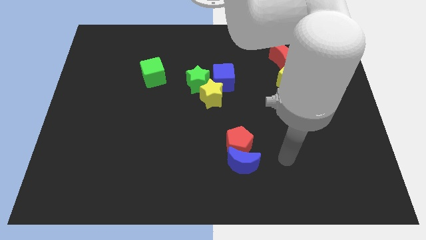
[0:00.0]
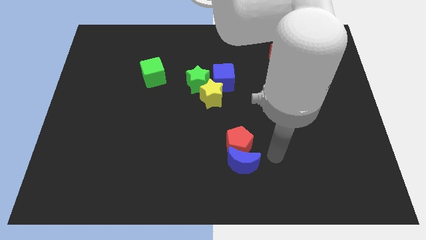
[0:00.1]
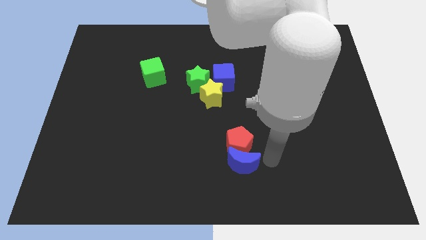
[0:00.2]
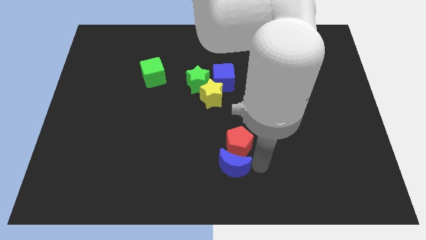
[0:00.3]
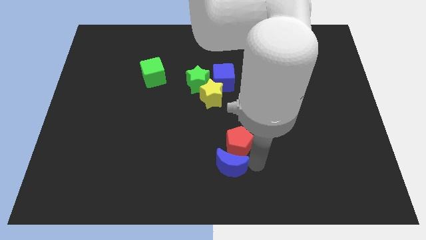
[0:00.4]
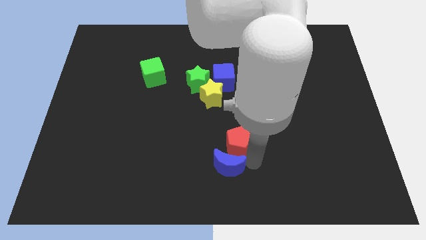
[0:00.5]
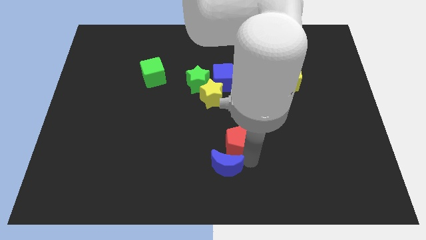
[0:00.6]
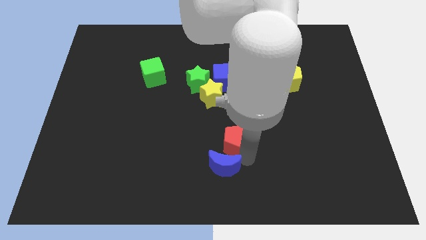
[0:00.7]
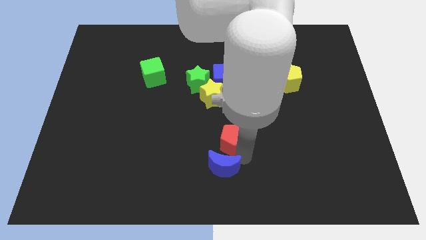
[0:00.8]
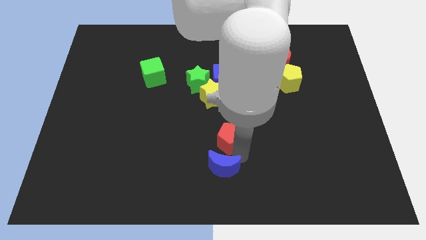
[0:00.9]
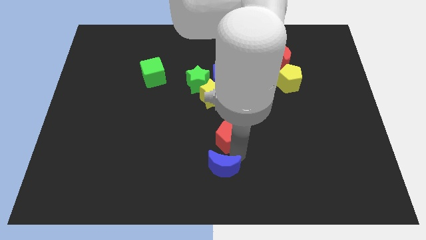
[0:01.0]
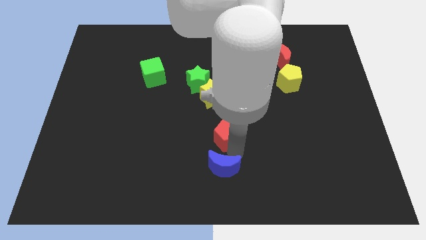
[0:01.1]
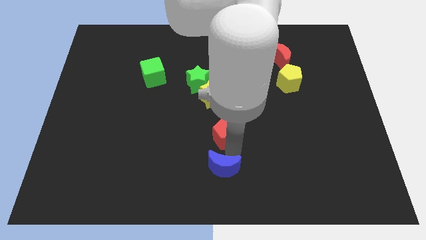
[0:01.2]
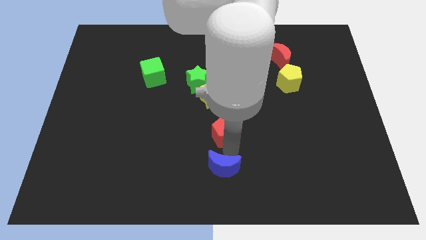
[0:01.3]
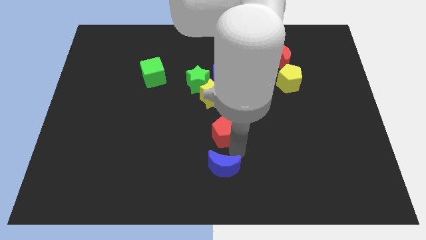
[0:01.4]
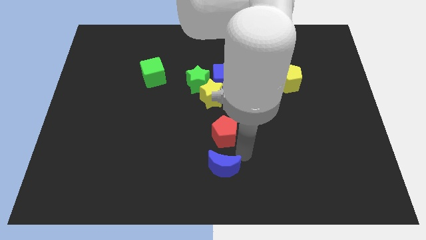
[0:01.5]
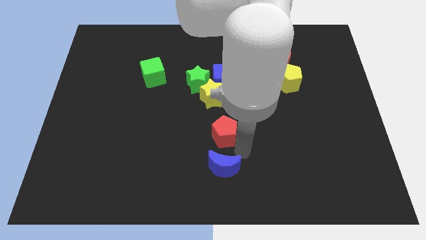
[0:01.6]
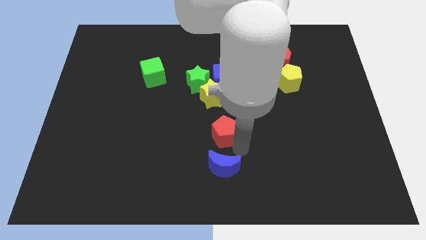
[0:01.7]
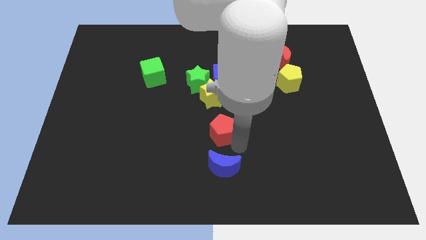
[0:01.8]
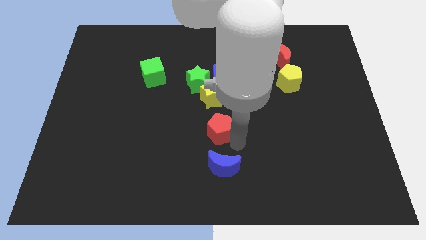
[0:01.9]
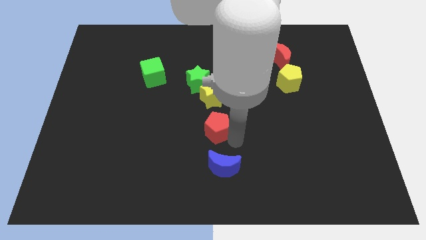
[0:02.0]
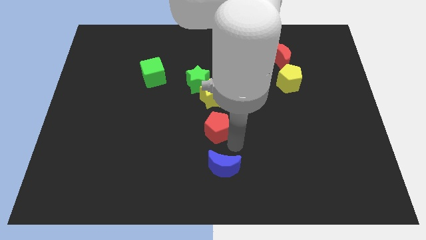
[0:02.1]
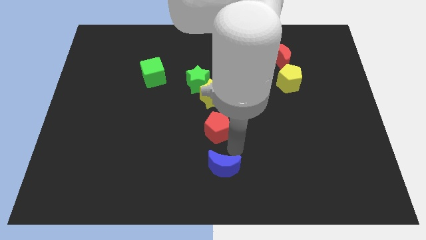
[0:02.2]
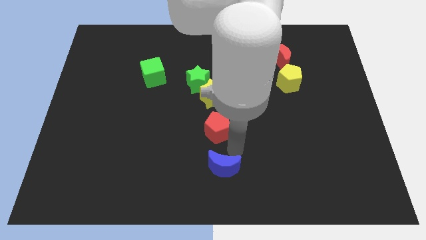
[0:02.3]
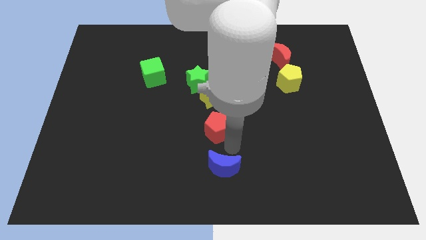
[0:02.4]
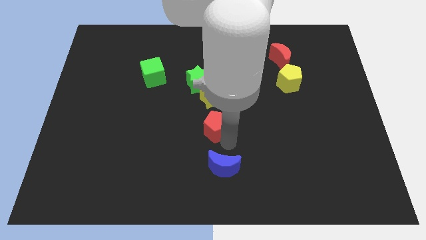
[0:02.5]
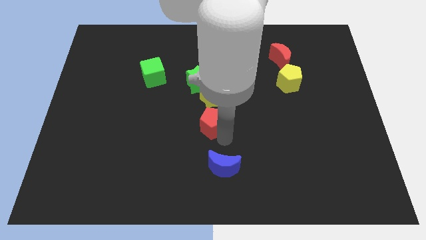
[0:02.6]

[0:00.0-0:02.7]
slightly slide the red pentagon diagonally upwards and to the left

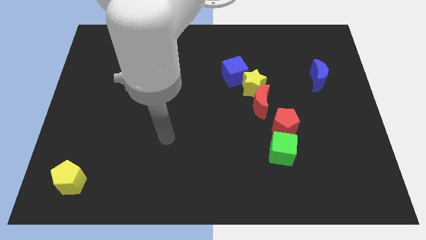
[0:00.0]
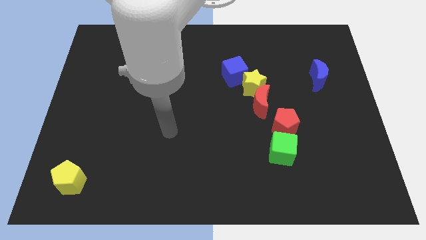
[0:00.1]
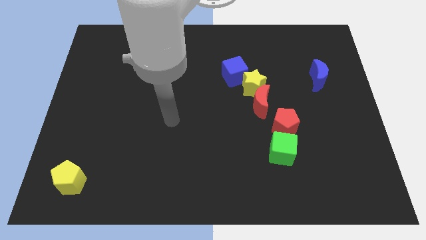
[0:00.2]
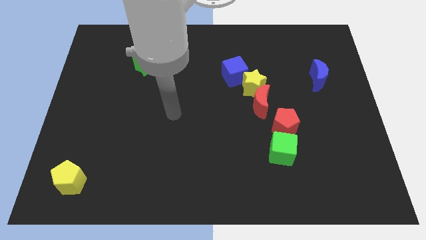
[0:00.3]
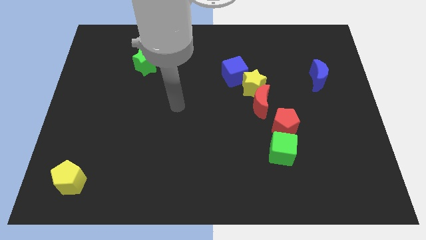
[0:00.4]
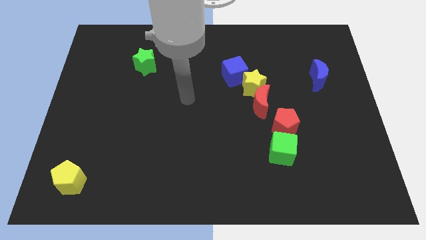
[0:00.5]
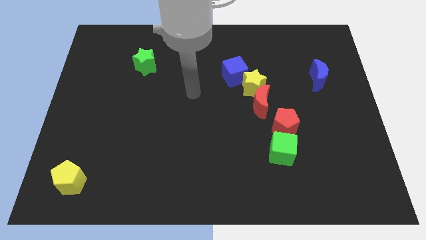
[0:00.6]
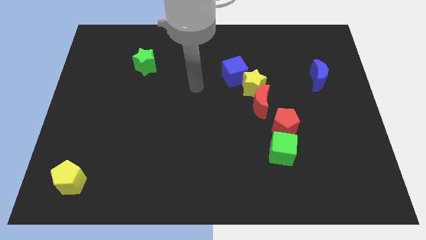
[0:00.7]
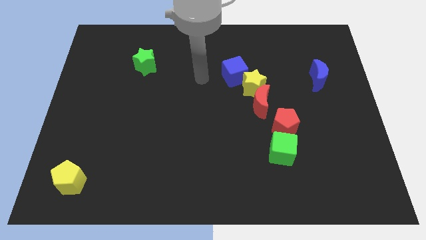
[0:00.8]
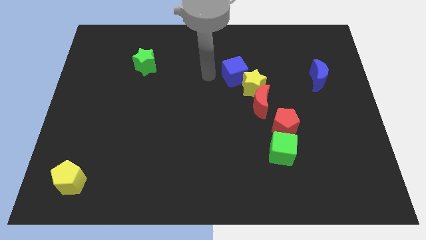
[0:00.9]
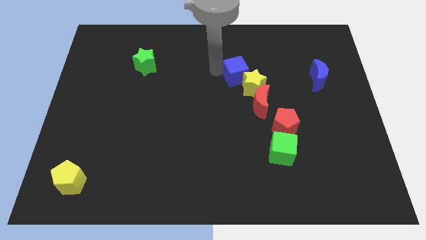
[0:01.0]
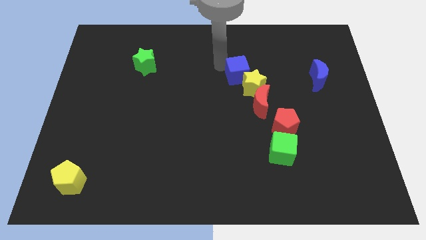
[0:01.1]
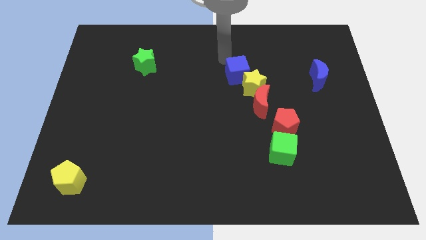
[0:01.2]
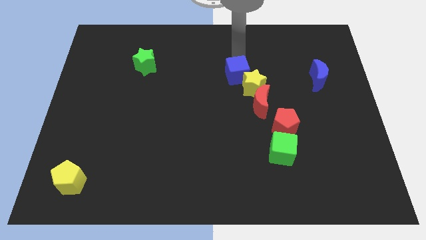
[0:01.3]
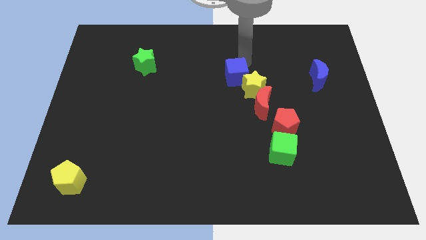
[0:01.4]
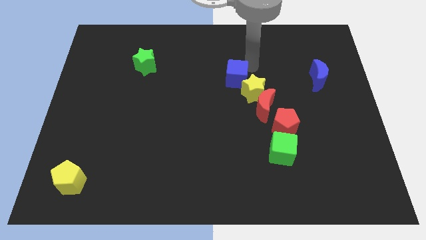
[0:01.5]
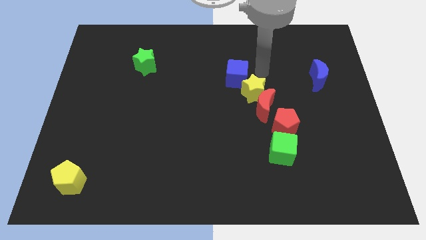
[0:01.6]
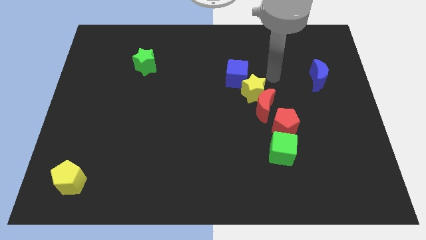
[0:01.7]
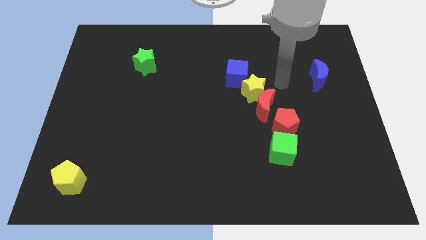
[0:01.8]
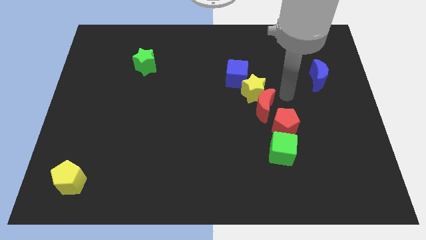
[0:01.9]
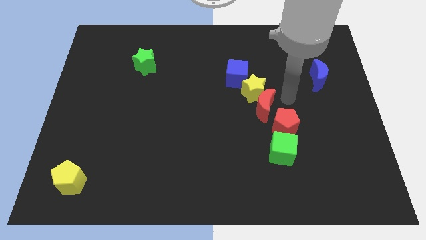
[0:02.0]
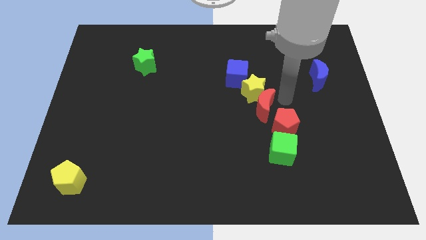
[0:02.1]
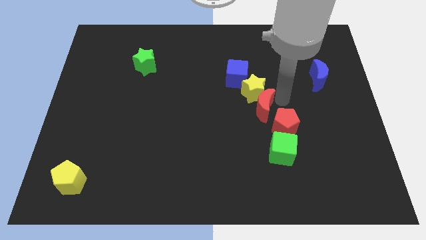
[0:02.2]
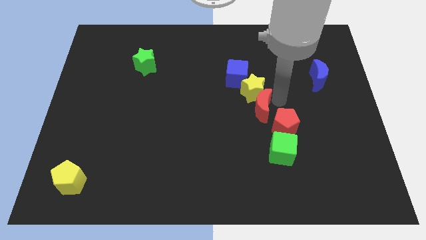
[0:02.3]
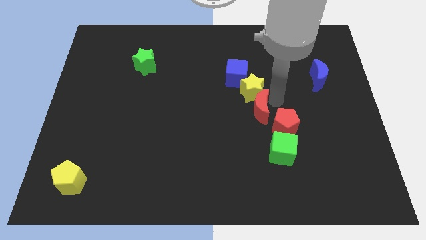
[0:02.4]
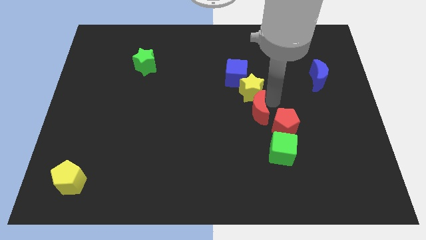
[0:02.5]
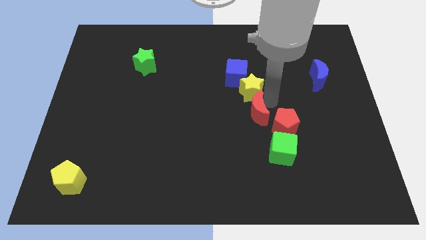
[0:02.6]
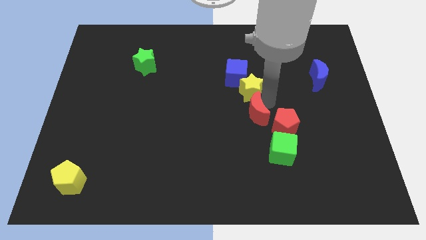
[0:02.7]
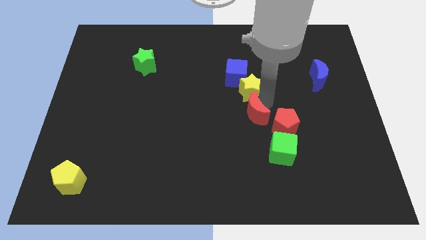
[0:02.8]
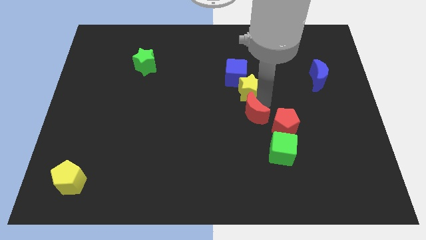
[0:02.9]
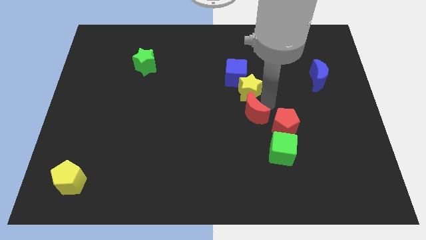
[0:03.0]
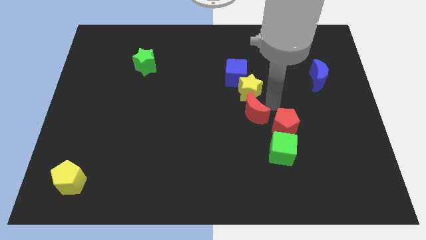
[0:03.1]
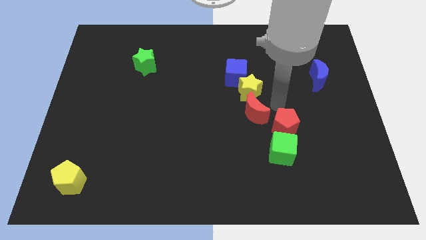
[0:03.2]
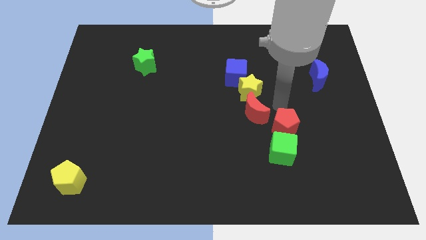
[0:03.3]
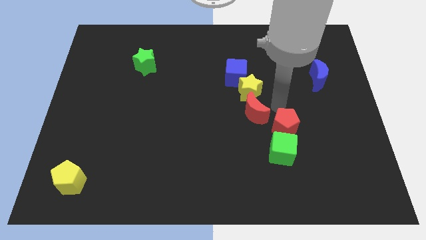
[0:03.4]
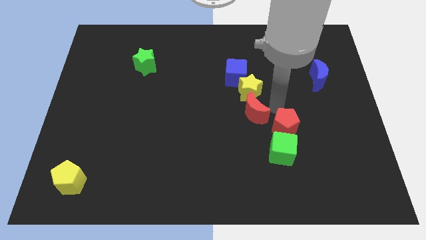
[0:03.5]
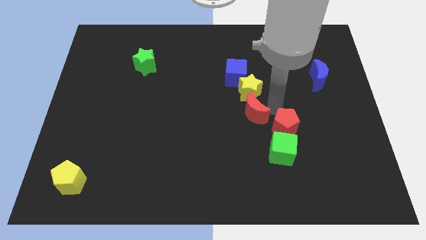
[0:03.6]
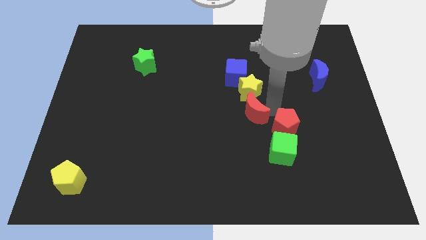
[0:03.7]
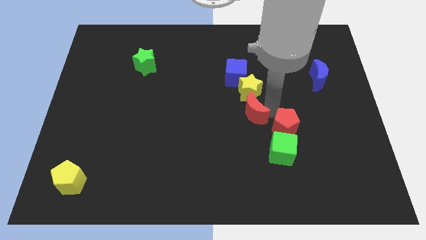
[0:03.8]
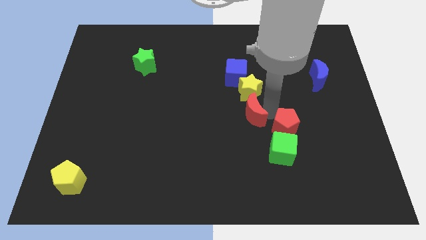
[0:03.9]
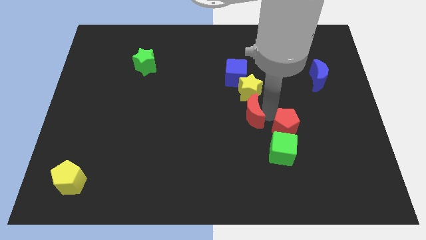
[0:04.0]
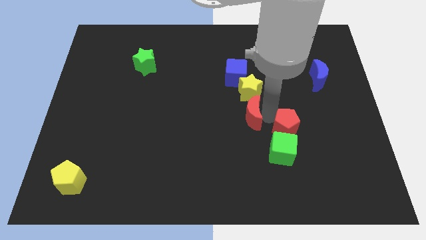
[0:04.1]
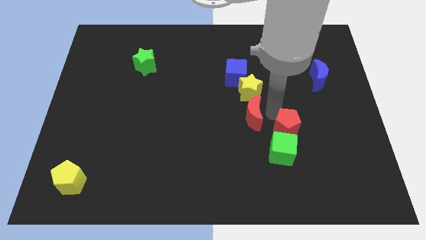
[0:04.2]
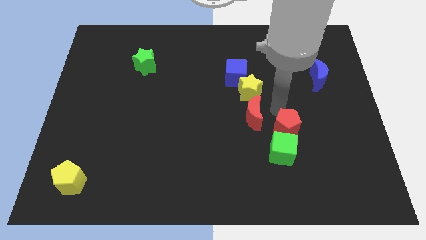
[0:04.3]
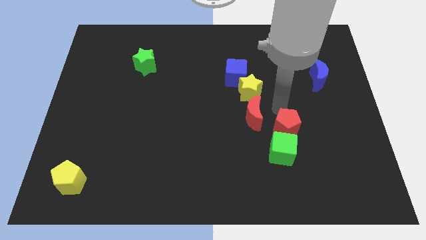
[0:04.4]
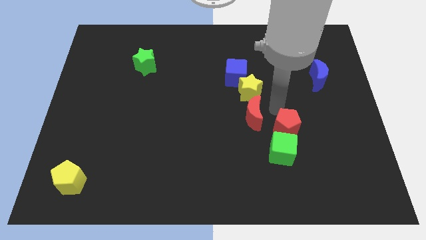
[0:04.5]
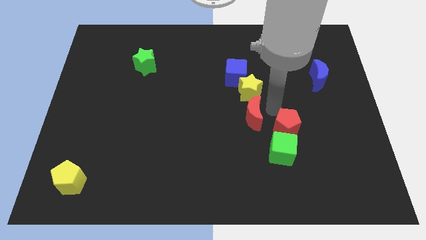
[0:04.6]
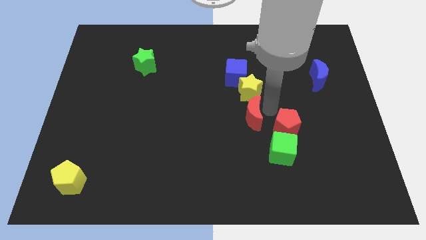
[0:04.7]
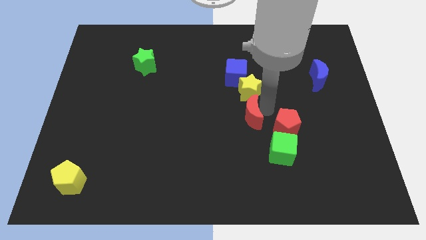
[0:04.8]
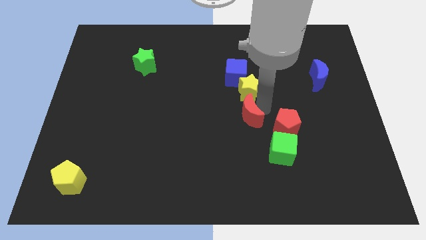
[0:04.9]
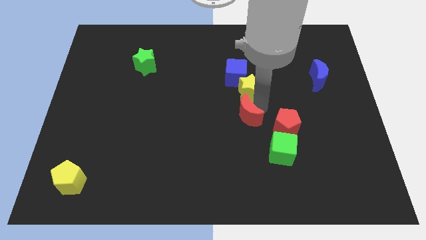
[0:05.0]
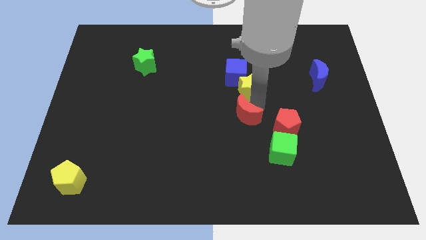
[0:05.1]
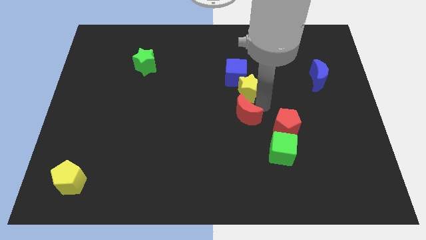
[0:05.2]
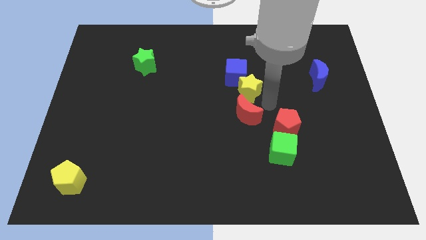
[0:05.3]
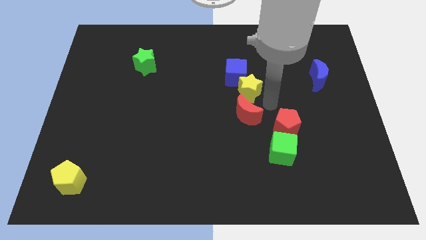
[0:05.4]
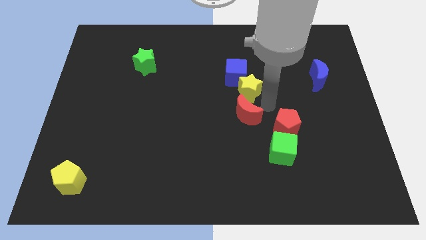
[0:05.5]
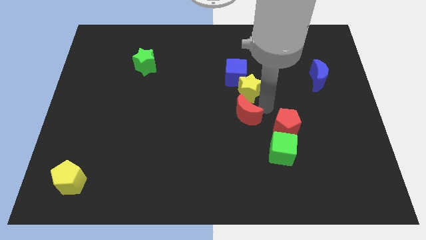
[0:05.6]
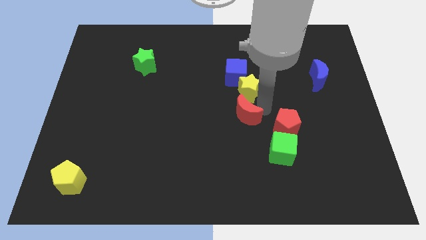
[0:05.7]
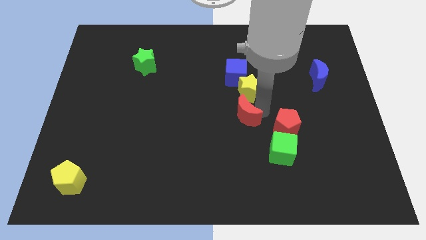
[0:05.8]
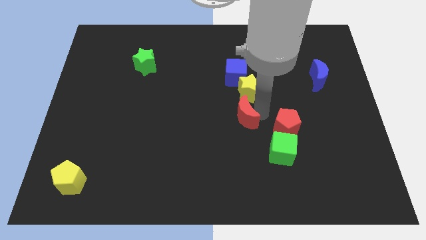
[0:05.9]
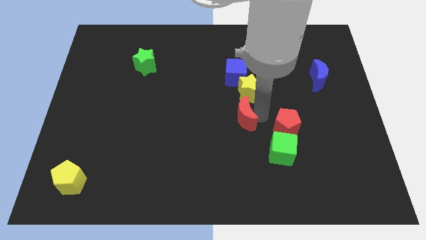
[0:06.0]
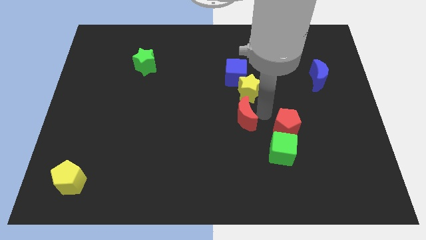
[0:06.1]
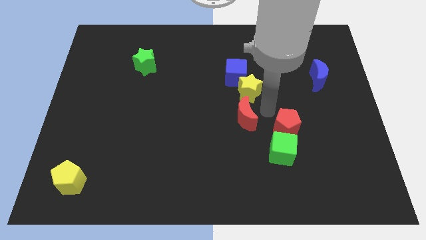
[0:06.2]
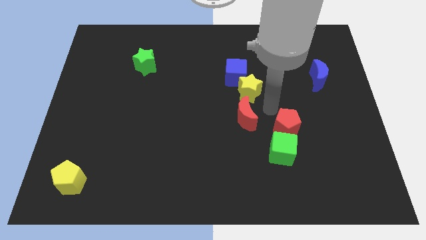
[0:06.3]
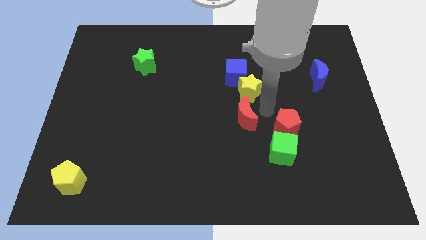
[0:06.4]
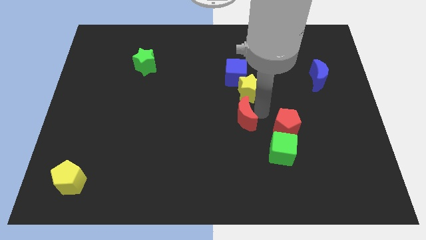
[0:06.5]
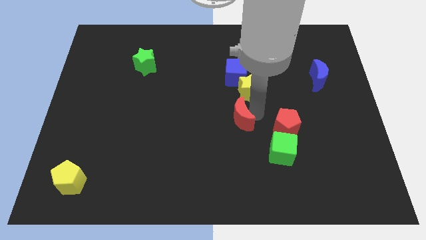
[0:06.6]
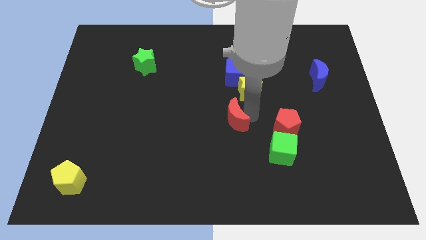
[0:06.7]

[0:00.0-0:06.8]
push the red moon a little bit downwards and then left
